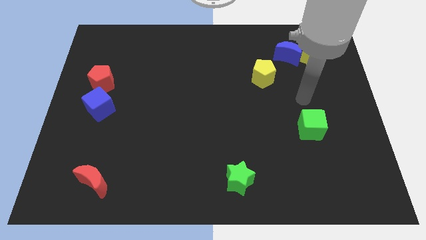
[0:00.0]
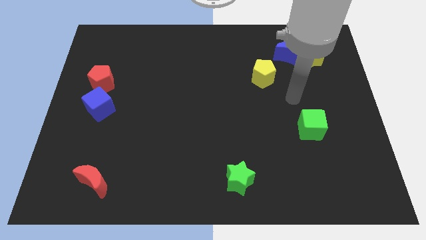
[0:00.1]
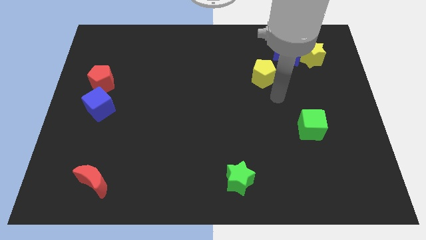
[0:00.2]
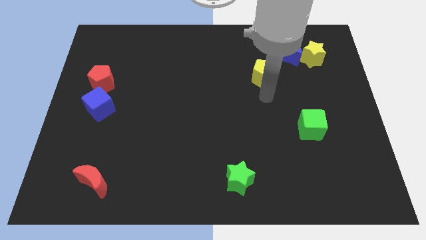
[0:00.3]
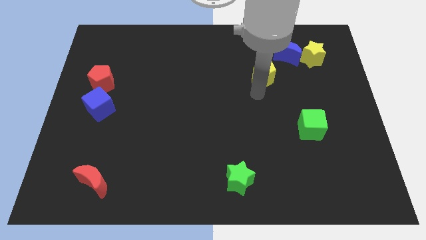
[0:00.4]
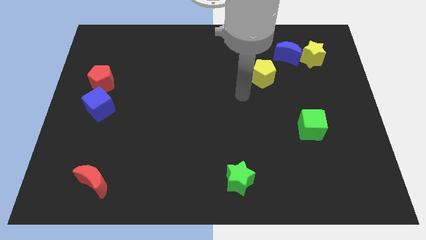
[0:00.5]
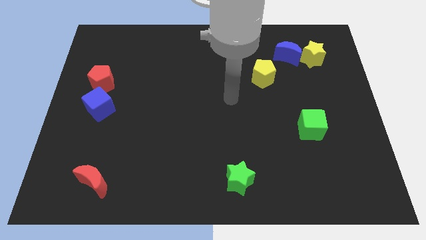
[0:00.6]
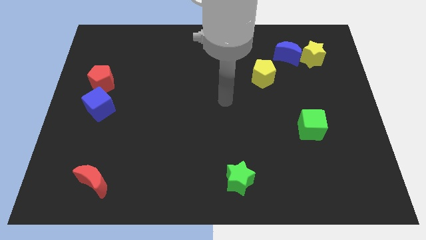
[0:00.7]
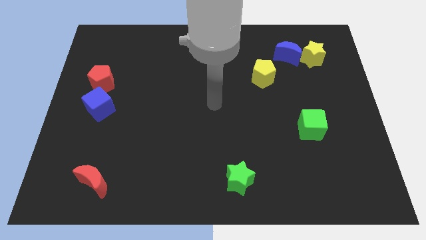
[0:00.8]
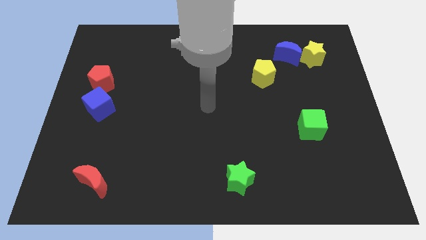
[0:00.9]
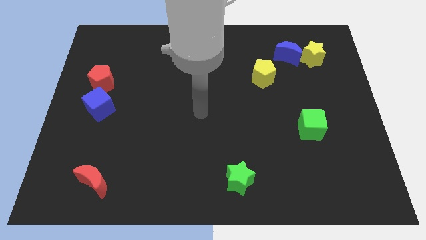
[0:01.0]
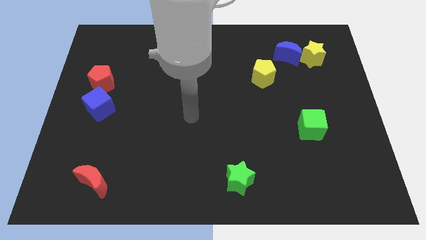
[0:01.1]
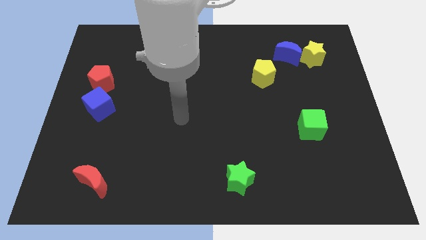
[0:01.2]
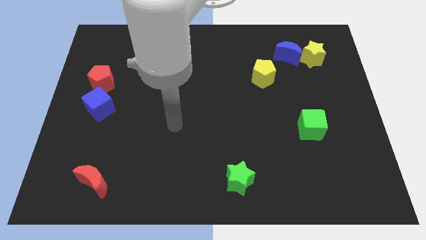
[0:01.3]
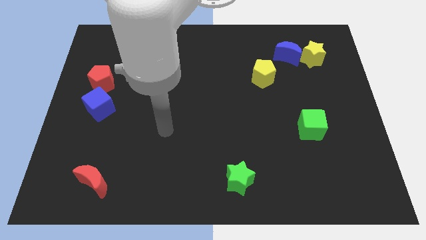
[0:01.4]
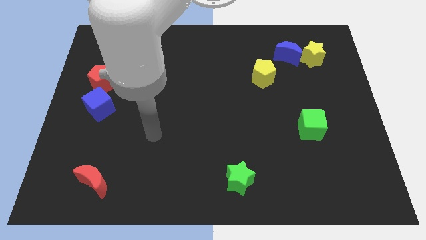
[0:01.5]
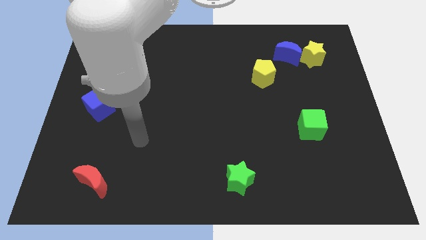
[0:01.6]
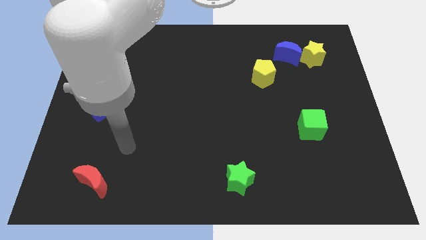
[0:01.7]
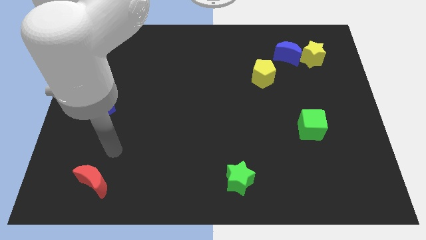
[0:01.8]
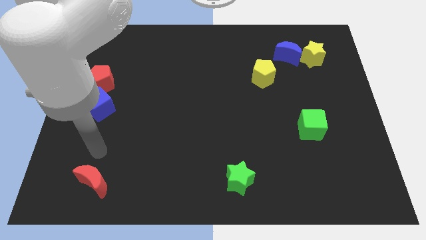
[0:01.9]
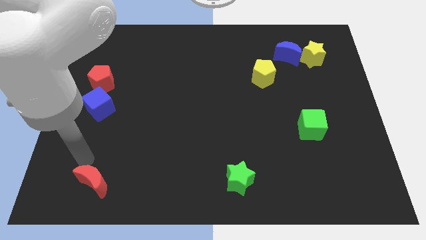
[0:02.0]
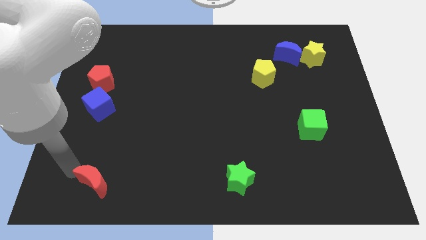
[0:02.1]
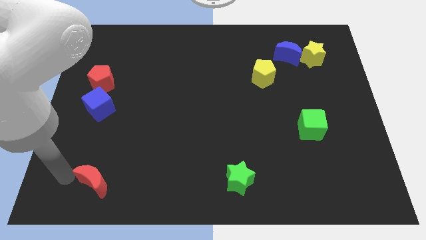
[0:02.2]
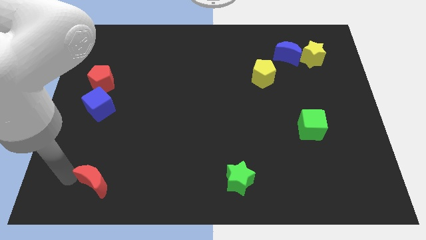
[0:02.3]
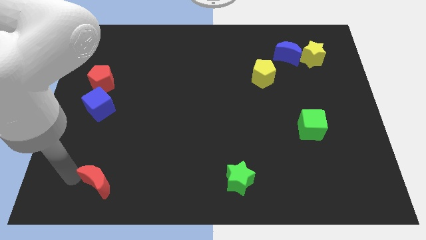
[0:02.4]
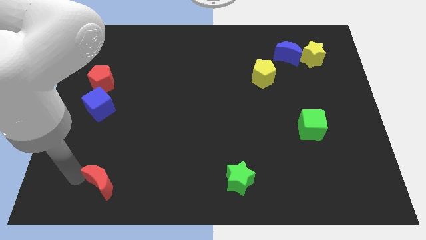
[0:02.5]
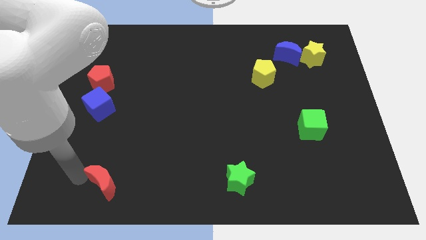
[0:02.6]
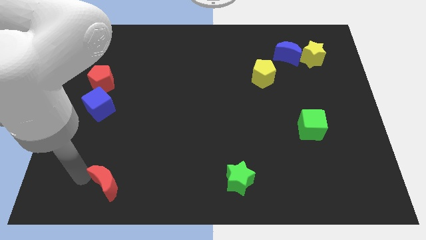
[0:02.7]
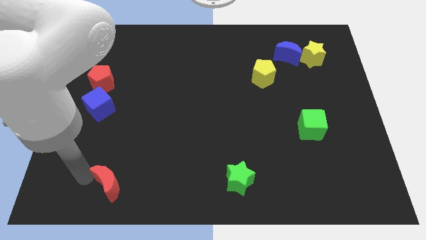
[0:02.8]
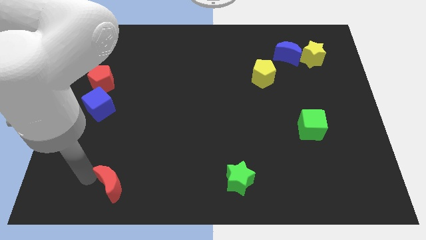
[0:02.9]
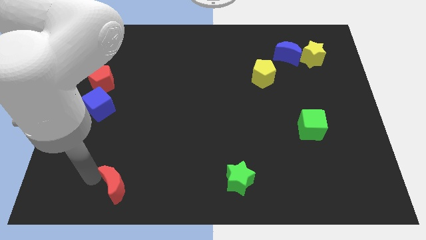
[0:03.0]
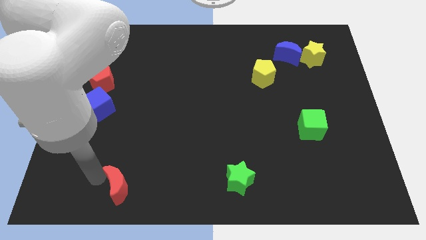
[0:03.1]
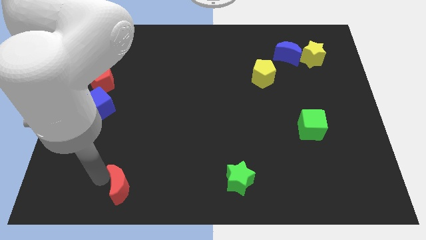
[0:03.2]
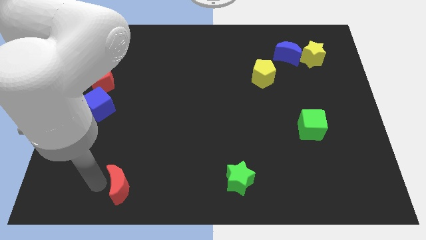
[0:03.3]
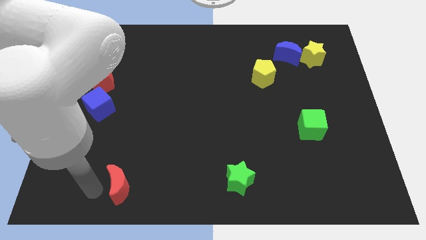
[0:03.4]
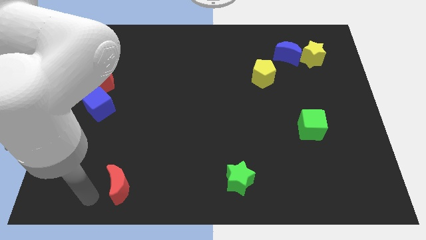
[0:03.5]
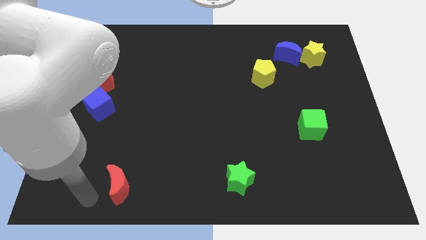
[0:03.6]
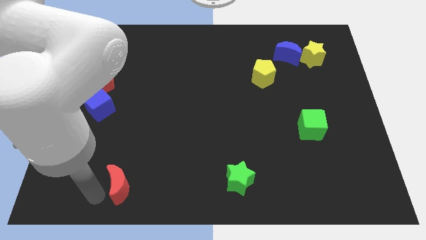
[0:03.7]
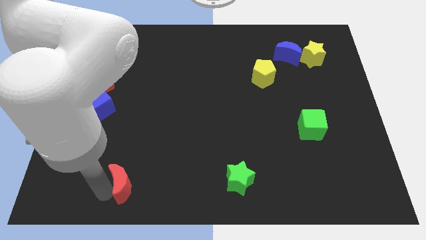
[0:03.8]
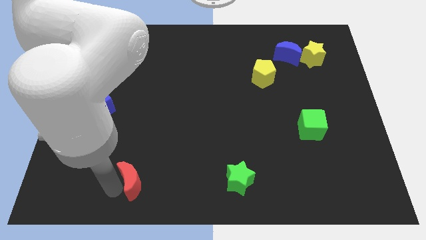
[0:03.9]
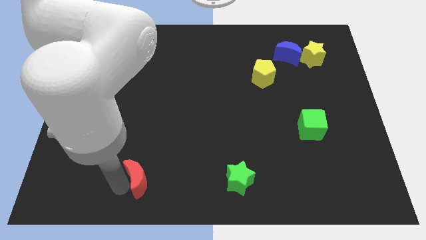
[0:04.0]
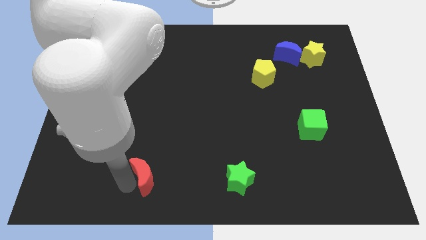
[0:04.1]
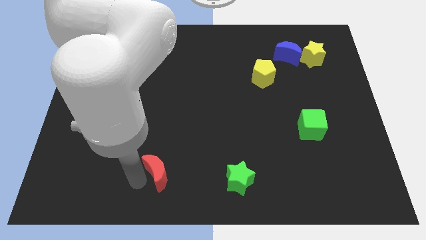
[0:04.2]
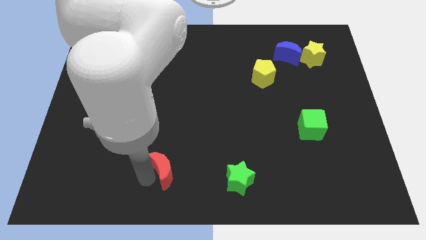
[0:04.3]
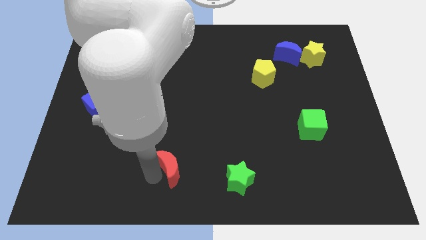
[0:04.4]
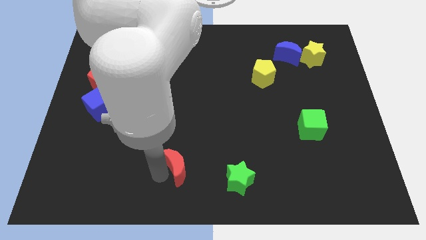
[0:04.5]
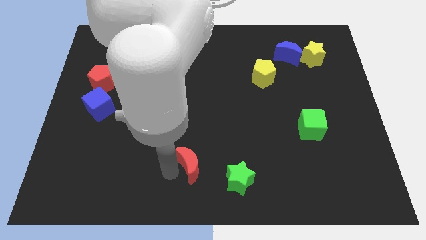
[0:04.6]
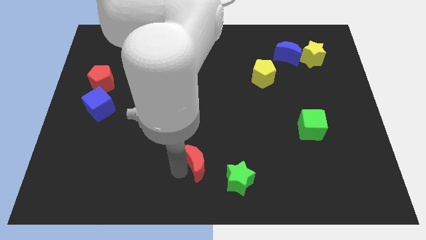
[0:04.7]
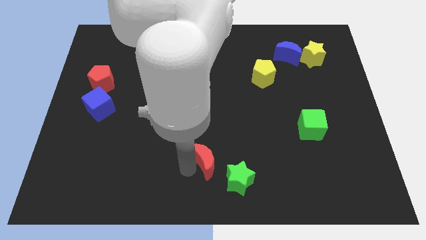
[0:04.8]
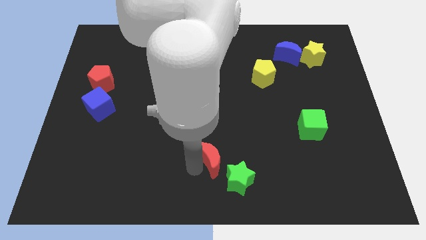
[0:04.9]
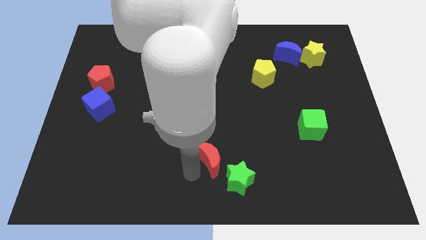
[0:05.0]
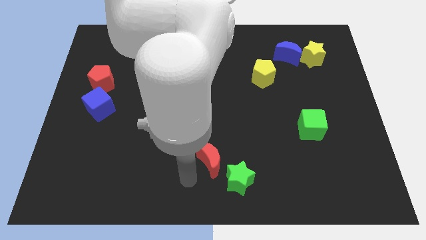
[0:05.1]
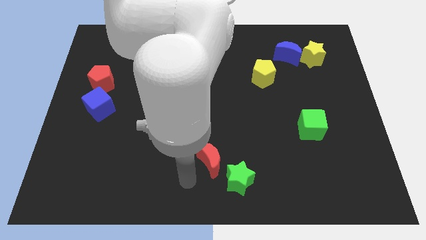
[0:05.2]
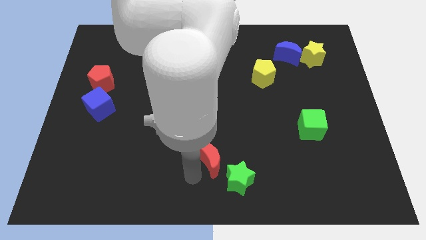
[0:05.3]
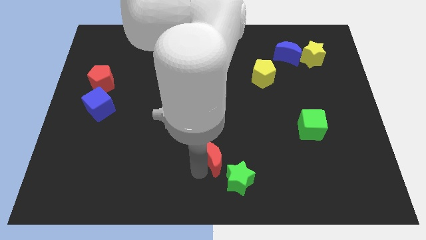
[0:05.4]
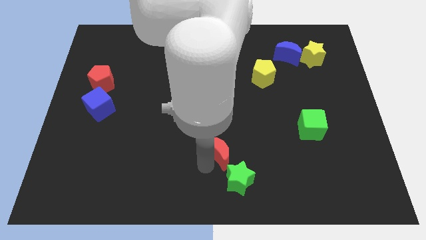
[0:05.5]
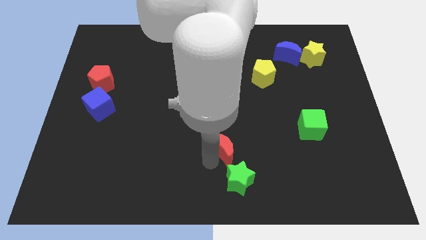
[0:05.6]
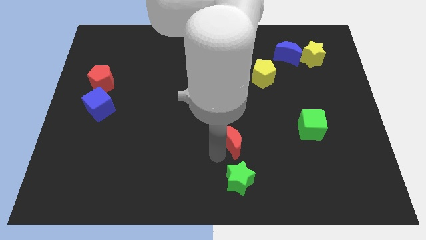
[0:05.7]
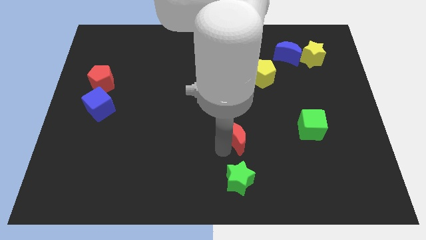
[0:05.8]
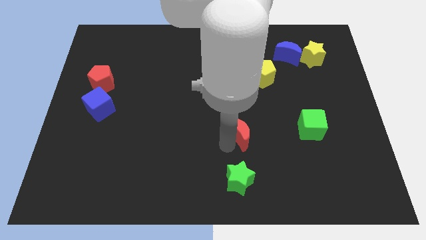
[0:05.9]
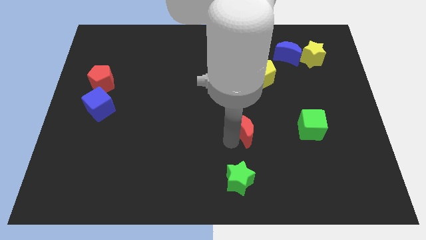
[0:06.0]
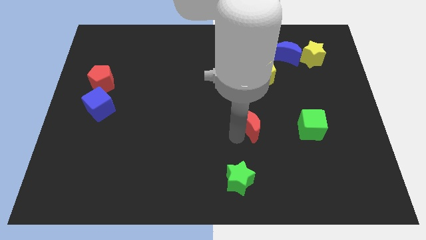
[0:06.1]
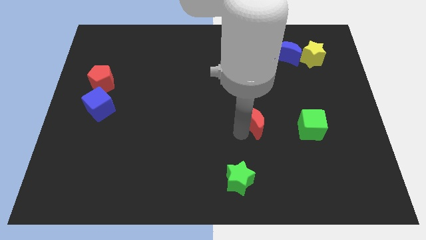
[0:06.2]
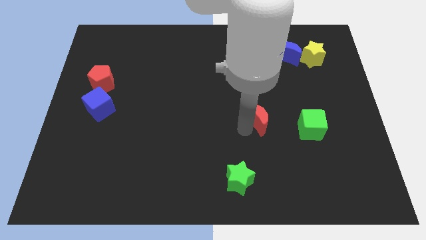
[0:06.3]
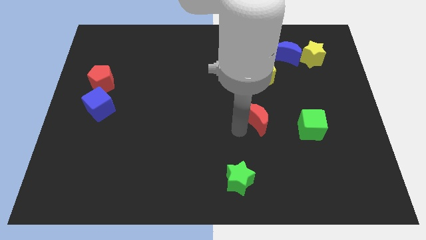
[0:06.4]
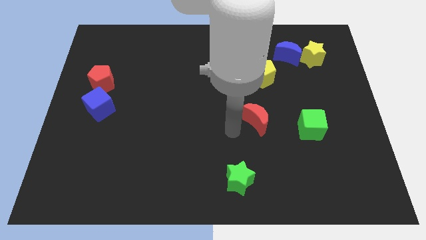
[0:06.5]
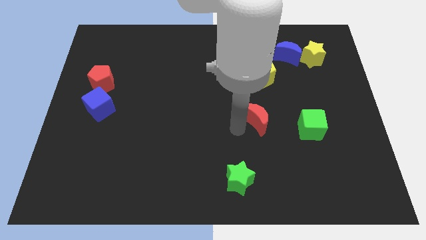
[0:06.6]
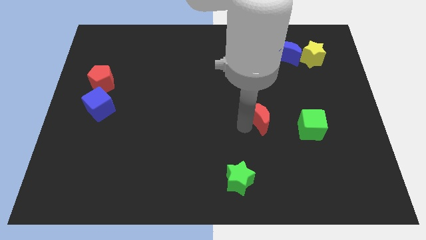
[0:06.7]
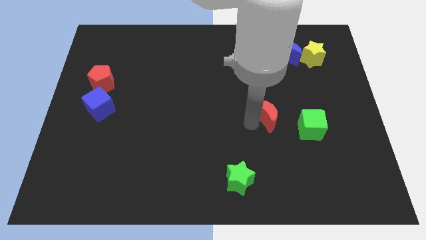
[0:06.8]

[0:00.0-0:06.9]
slide the red moon to the top left side of the green cube
